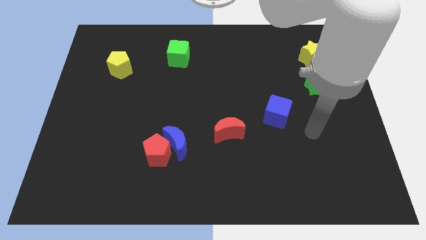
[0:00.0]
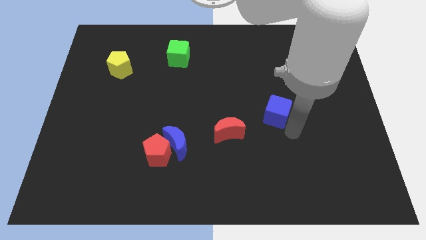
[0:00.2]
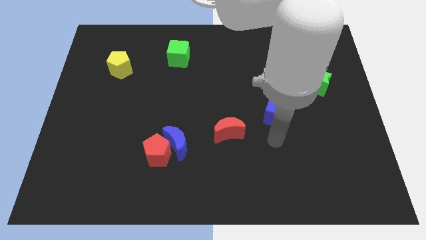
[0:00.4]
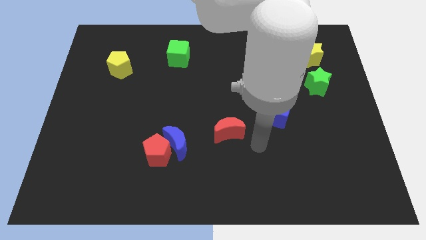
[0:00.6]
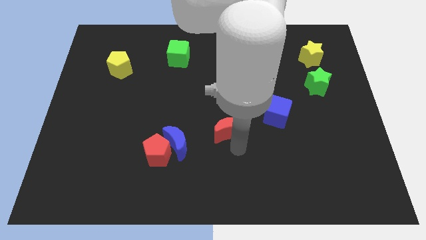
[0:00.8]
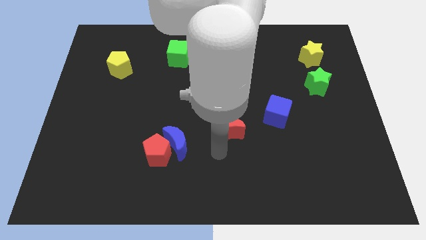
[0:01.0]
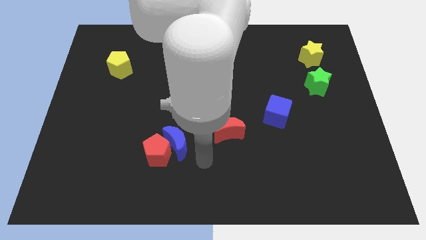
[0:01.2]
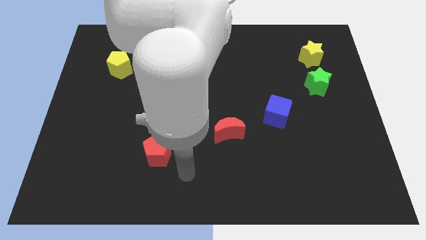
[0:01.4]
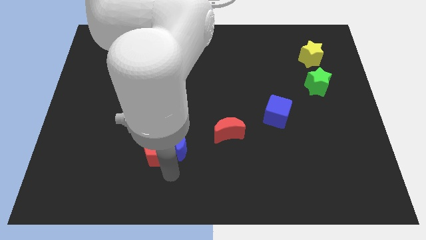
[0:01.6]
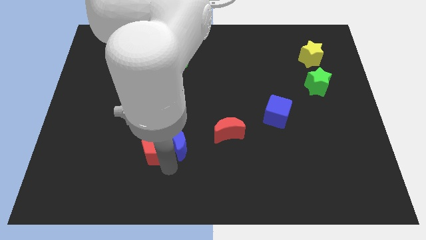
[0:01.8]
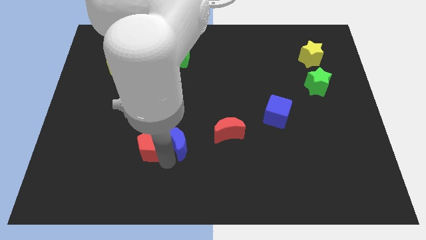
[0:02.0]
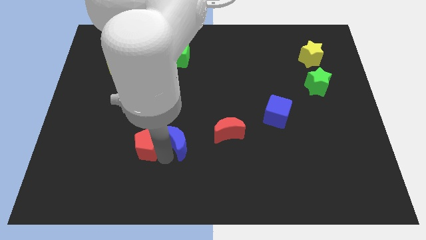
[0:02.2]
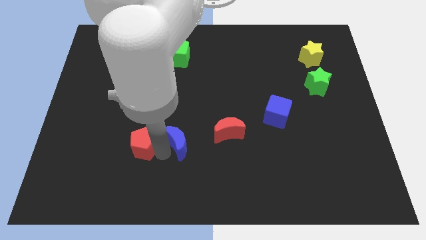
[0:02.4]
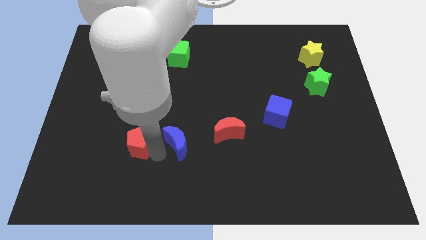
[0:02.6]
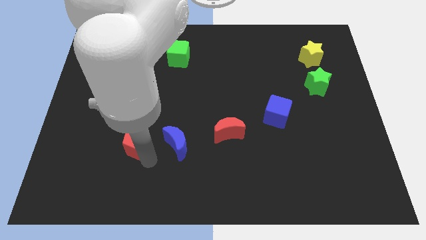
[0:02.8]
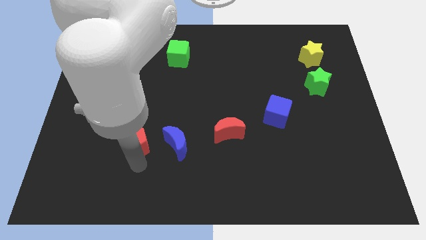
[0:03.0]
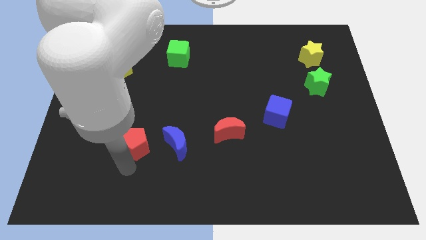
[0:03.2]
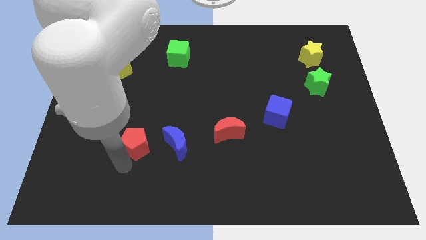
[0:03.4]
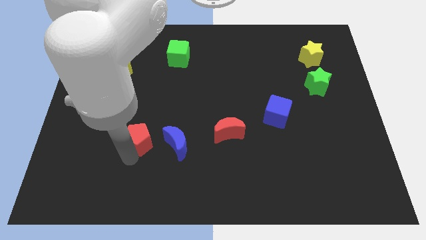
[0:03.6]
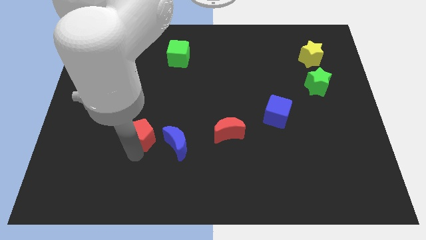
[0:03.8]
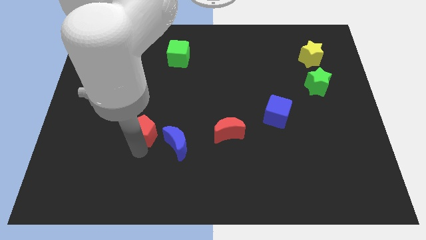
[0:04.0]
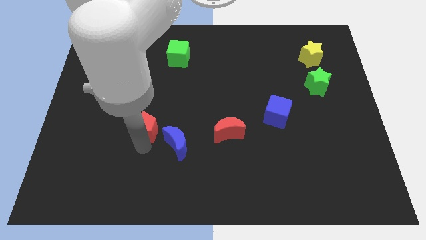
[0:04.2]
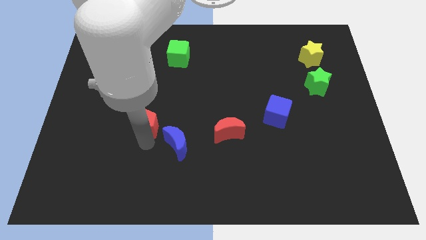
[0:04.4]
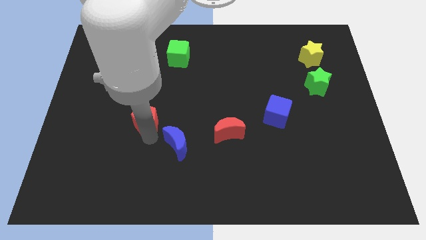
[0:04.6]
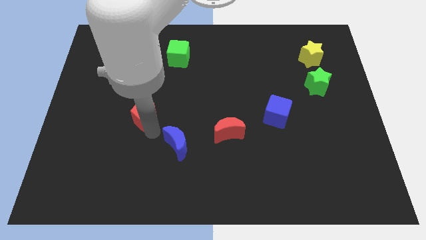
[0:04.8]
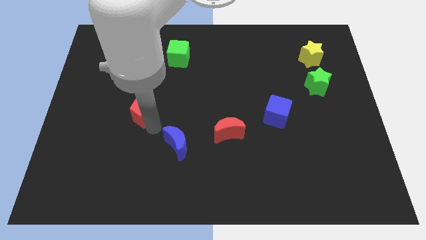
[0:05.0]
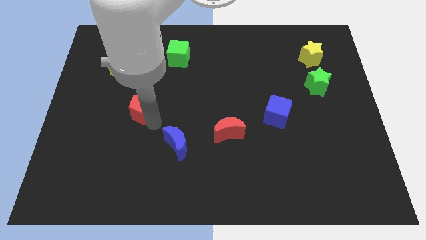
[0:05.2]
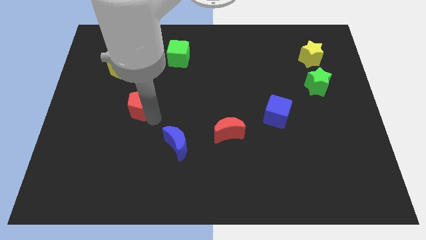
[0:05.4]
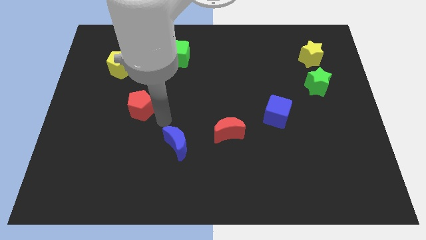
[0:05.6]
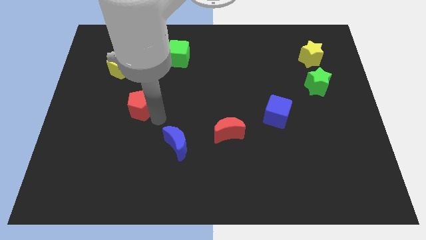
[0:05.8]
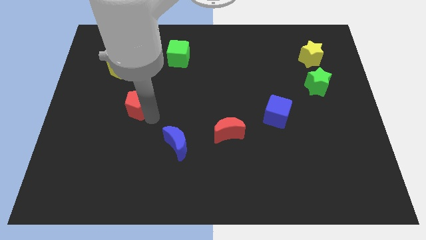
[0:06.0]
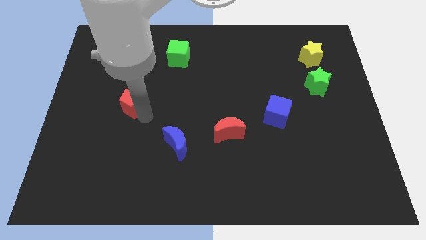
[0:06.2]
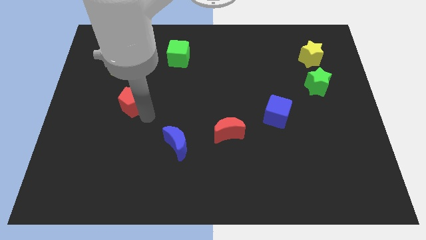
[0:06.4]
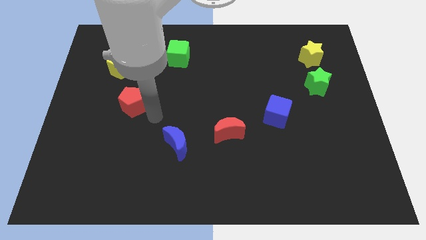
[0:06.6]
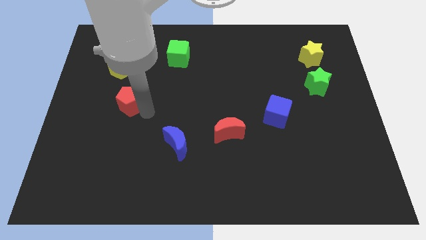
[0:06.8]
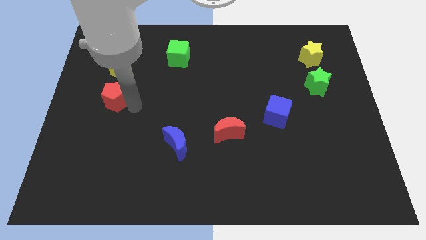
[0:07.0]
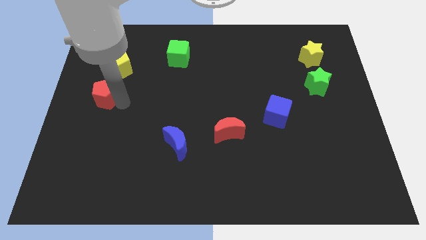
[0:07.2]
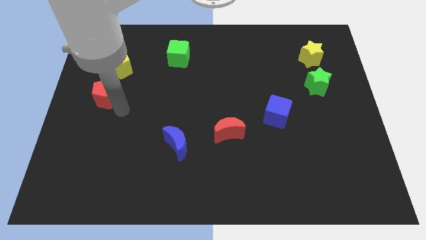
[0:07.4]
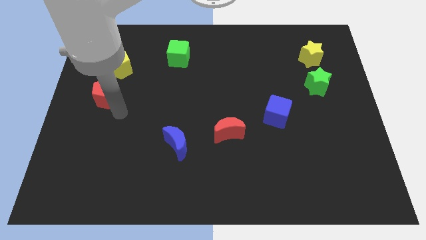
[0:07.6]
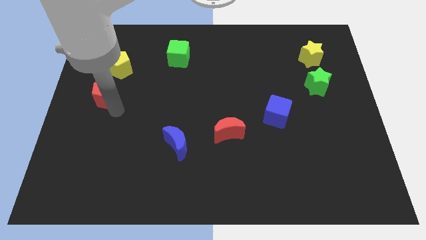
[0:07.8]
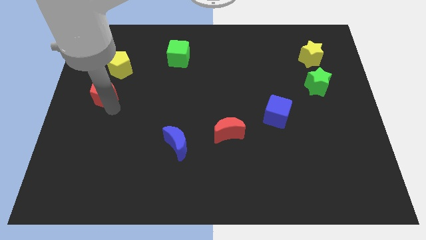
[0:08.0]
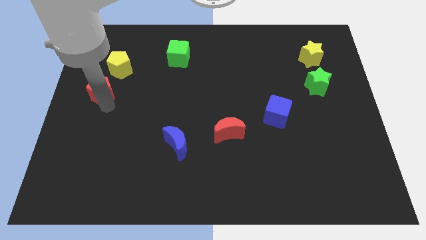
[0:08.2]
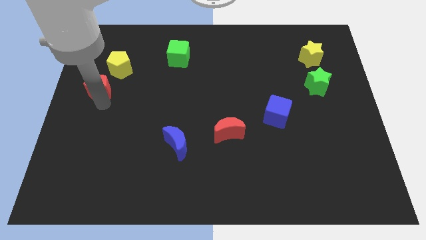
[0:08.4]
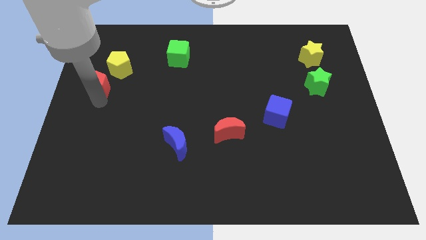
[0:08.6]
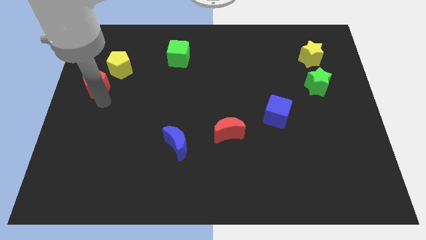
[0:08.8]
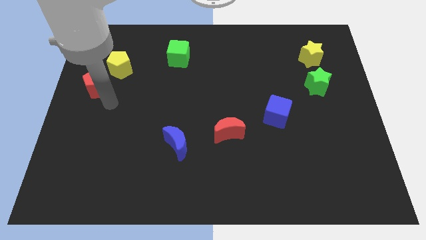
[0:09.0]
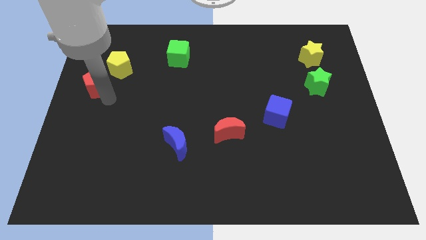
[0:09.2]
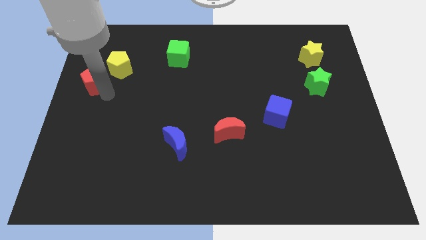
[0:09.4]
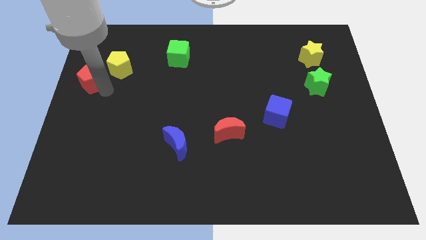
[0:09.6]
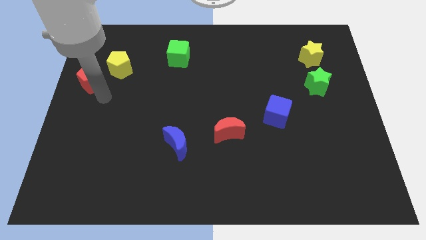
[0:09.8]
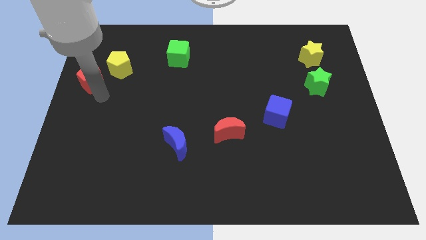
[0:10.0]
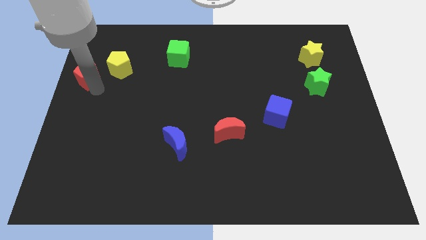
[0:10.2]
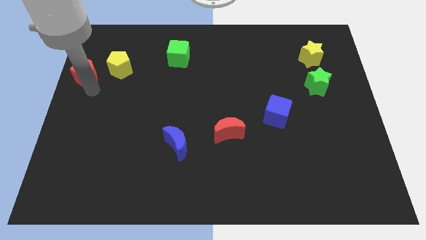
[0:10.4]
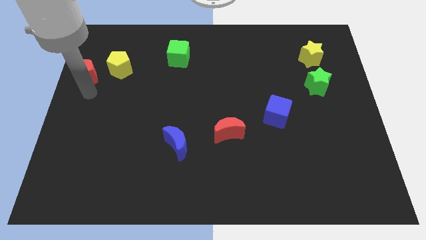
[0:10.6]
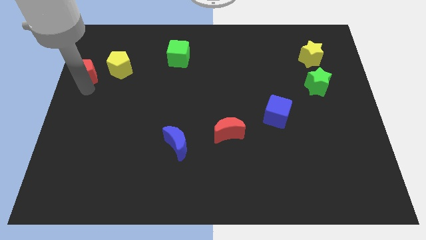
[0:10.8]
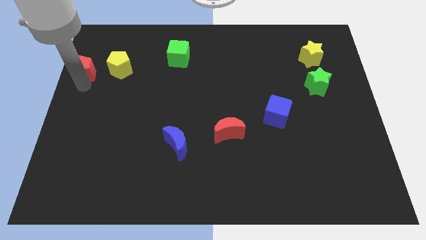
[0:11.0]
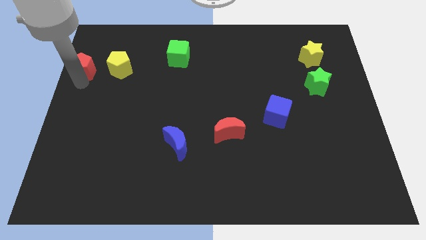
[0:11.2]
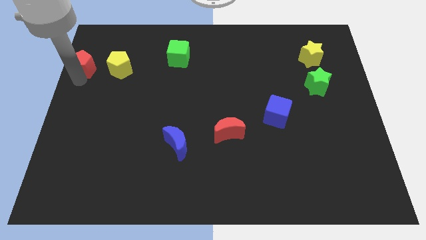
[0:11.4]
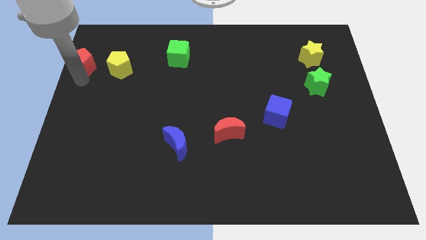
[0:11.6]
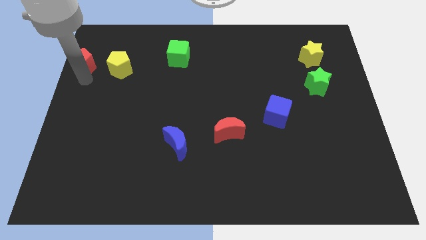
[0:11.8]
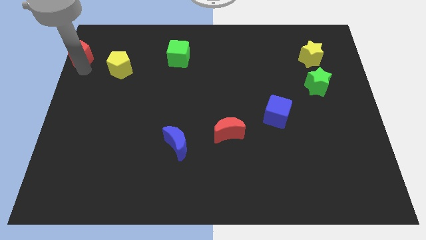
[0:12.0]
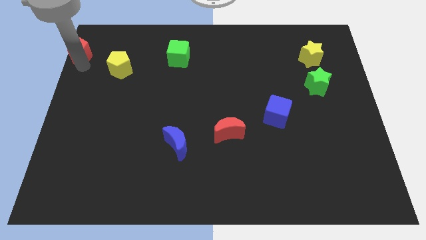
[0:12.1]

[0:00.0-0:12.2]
put the red pentagon to the top left corner
